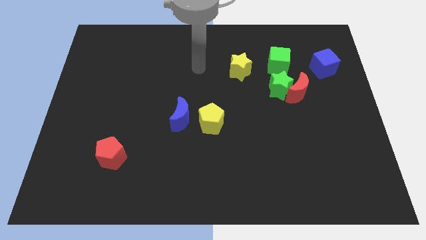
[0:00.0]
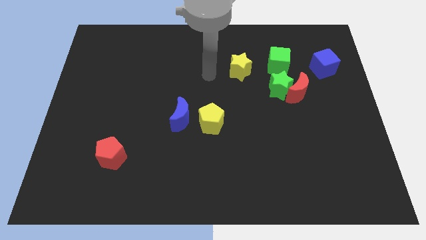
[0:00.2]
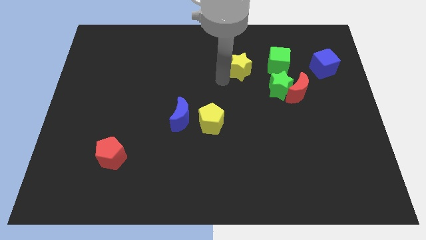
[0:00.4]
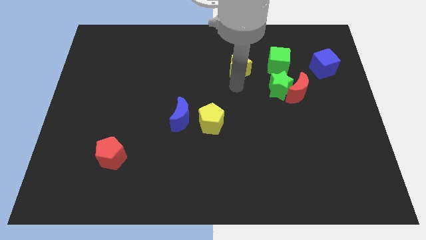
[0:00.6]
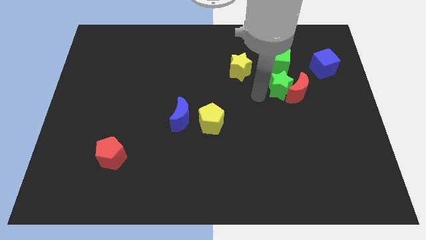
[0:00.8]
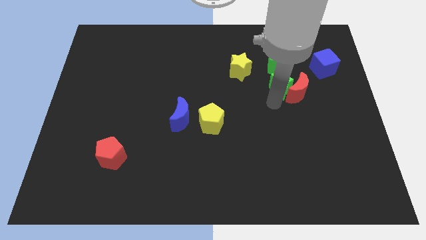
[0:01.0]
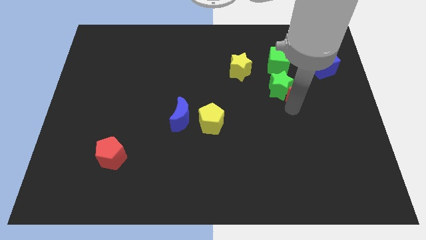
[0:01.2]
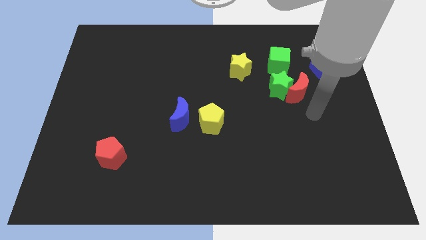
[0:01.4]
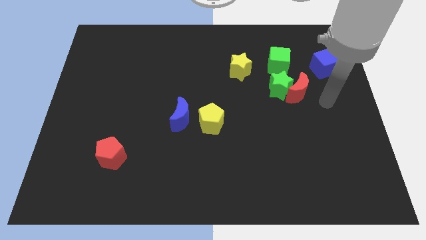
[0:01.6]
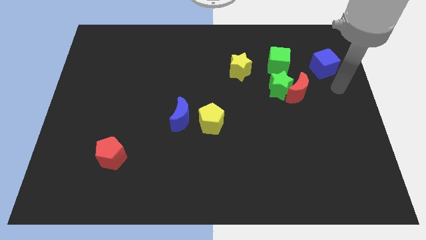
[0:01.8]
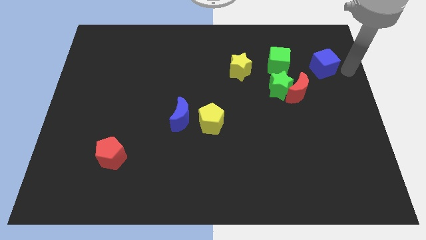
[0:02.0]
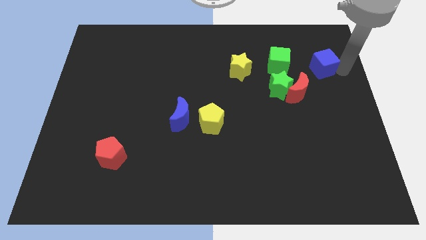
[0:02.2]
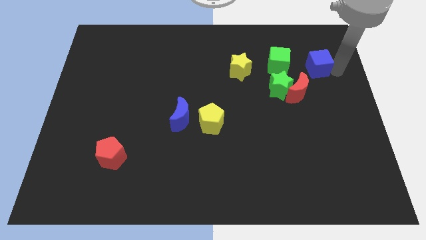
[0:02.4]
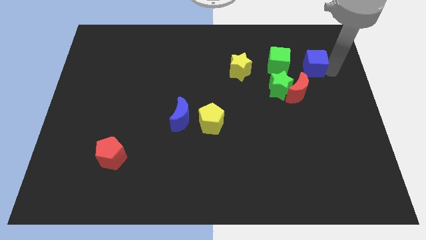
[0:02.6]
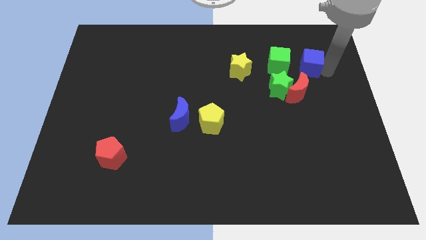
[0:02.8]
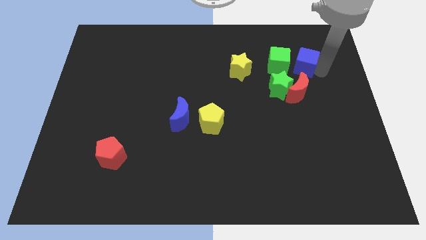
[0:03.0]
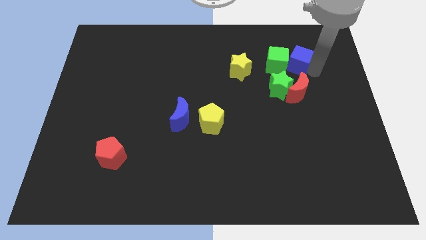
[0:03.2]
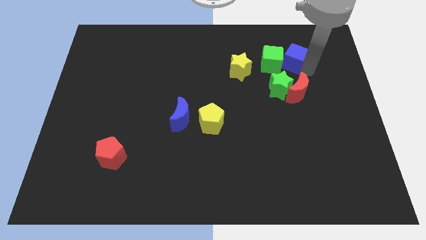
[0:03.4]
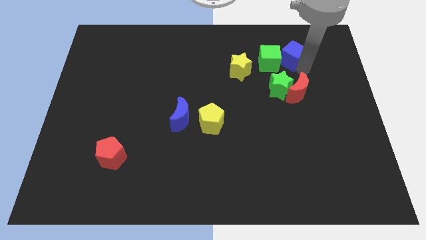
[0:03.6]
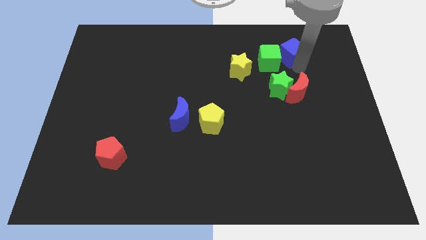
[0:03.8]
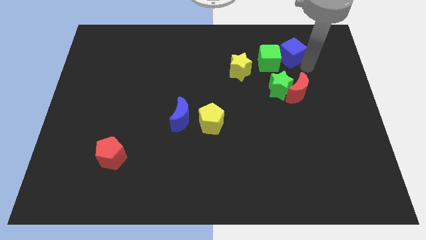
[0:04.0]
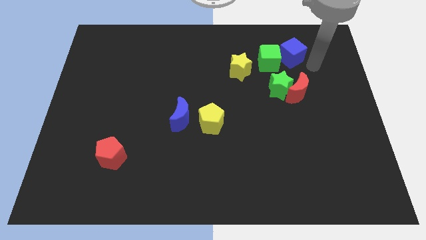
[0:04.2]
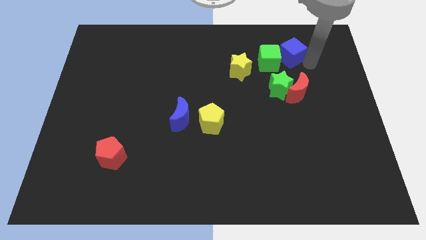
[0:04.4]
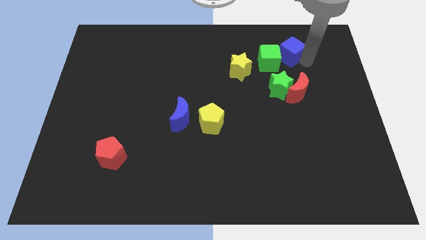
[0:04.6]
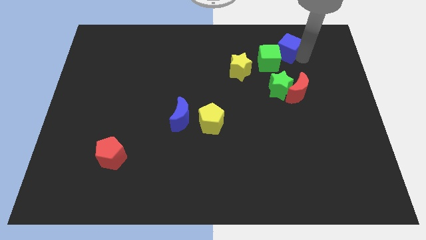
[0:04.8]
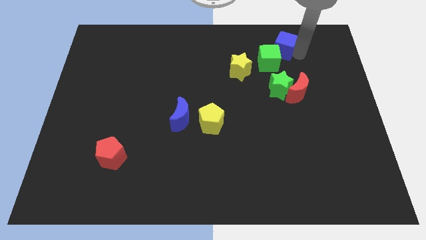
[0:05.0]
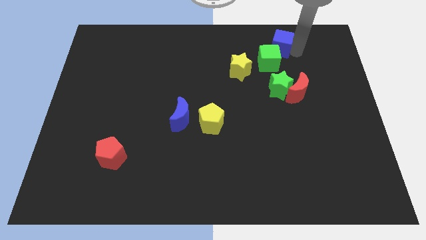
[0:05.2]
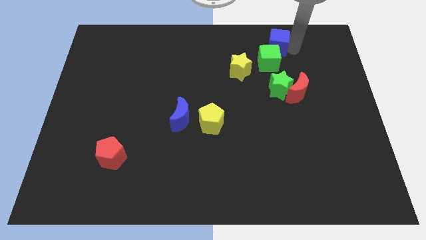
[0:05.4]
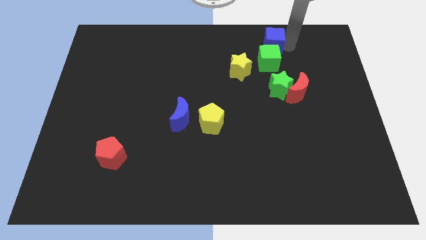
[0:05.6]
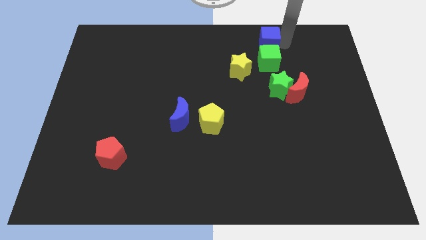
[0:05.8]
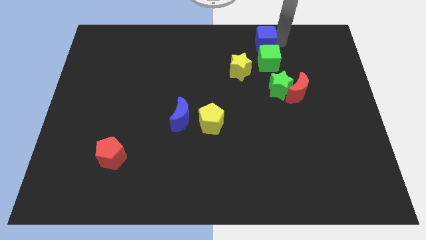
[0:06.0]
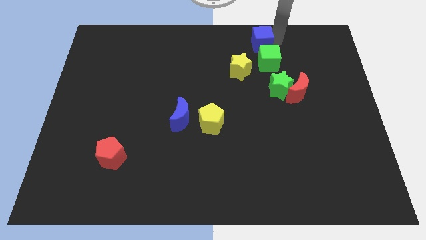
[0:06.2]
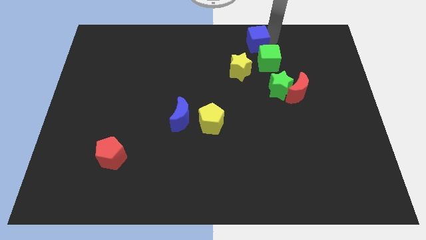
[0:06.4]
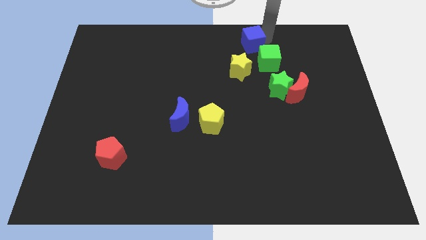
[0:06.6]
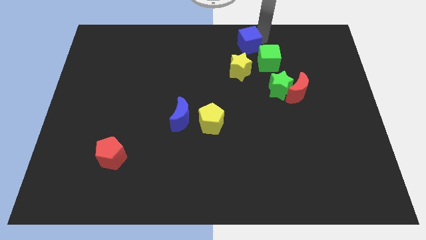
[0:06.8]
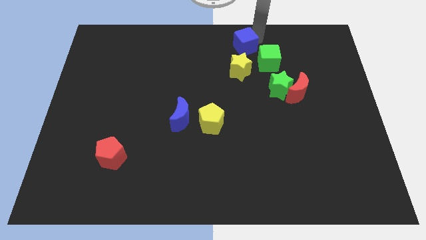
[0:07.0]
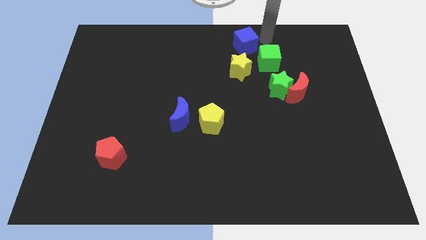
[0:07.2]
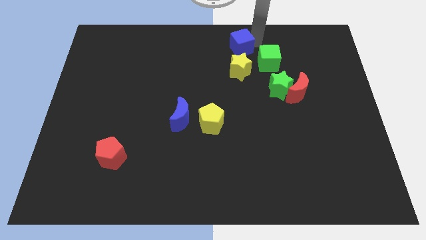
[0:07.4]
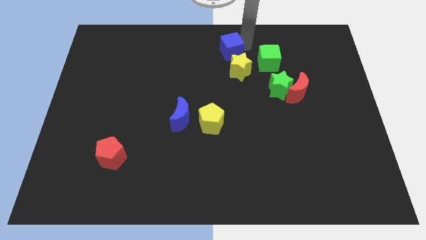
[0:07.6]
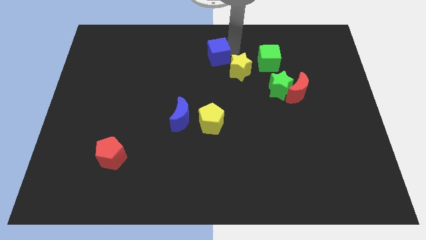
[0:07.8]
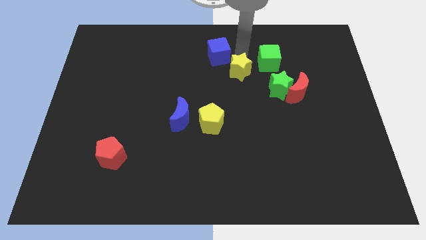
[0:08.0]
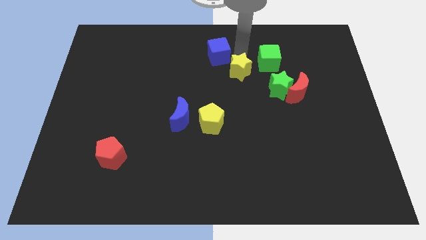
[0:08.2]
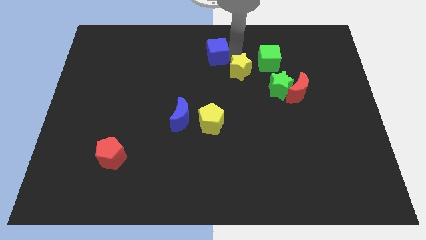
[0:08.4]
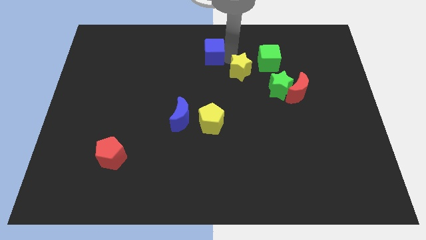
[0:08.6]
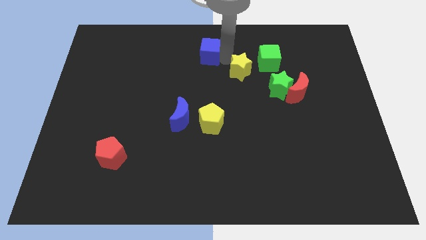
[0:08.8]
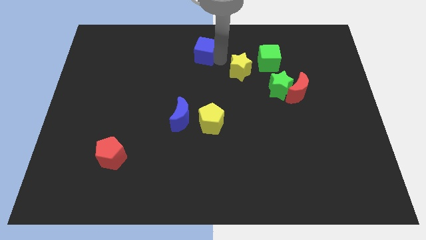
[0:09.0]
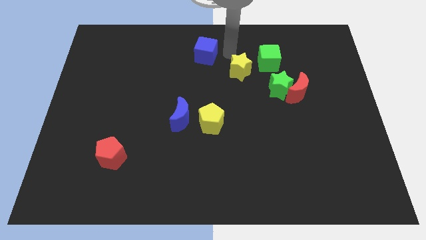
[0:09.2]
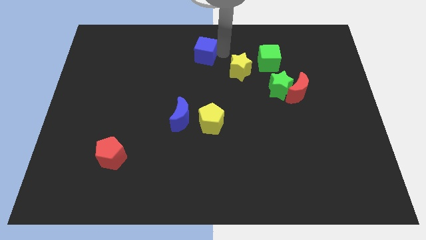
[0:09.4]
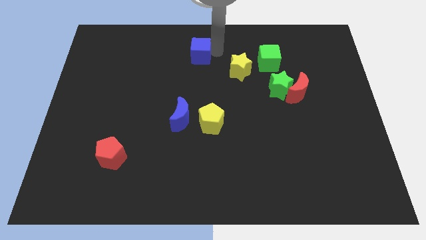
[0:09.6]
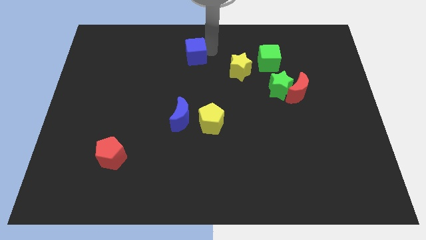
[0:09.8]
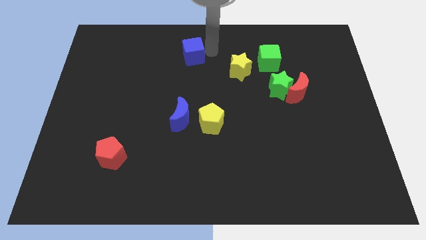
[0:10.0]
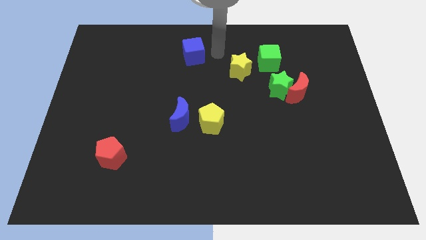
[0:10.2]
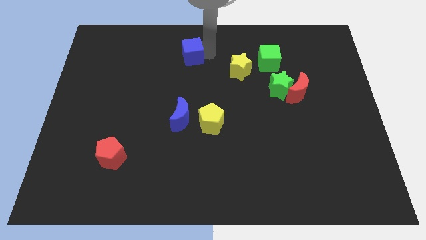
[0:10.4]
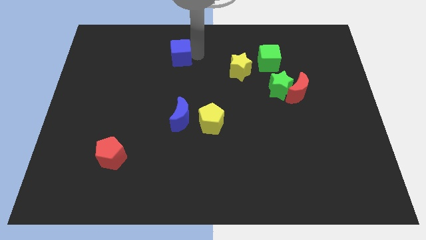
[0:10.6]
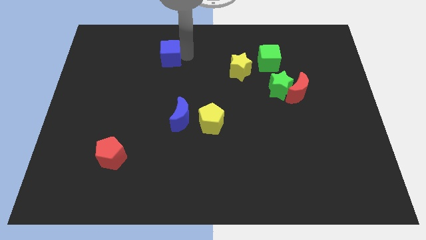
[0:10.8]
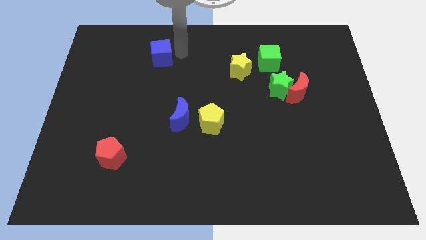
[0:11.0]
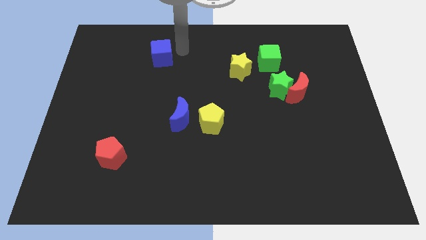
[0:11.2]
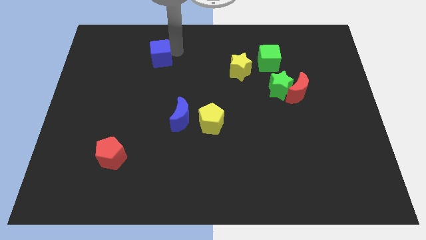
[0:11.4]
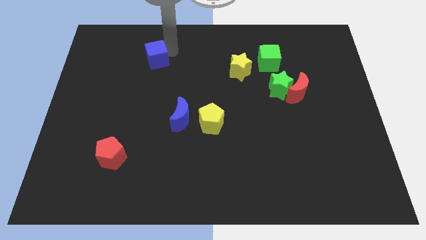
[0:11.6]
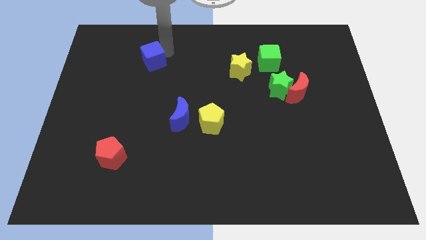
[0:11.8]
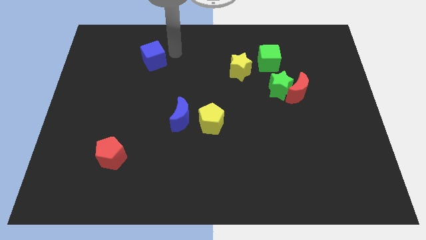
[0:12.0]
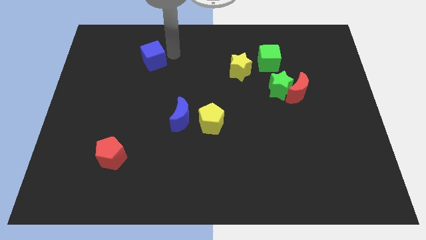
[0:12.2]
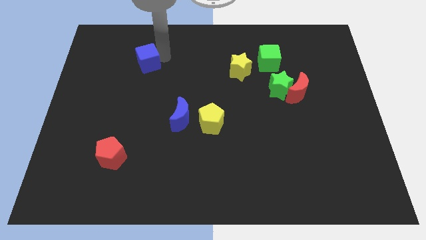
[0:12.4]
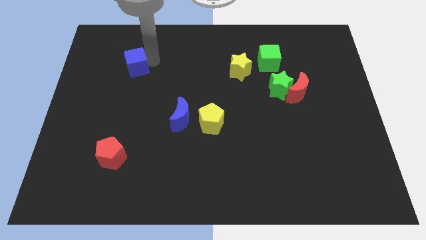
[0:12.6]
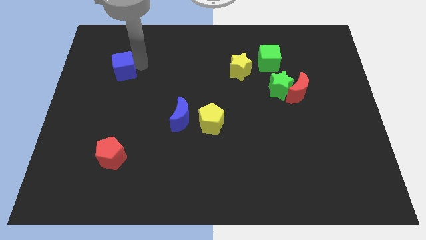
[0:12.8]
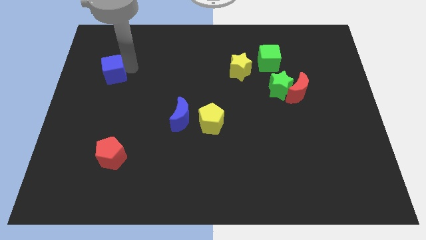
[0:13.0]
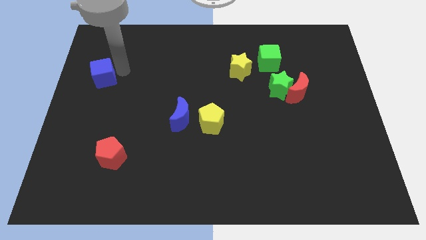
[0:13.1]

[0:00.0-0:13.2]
put the blue cube to the left side of the board

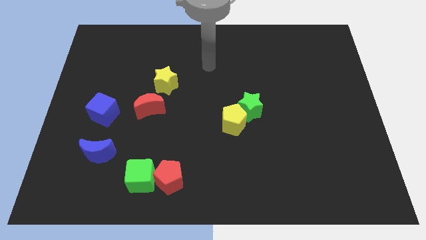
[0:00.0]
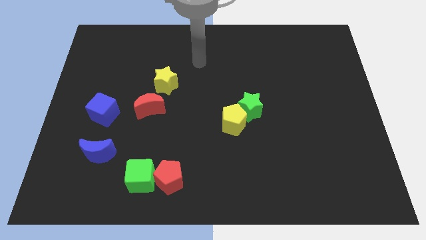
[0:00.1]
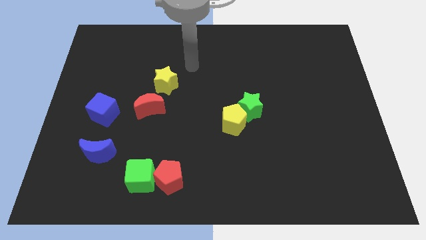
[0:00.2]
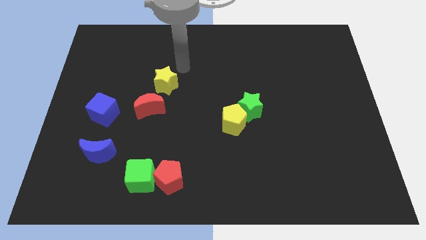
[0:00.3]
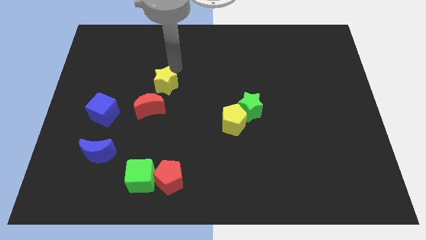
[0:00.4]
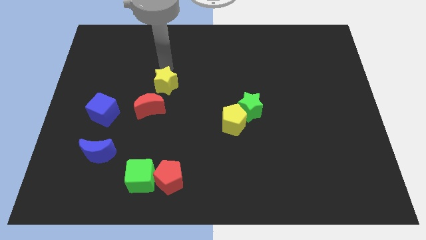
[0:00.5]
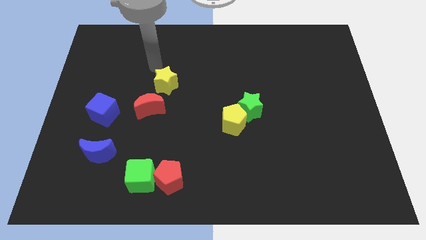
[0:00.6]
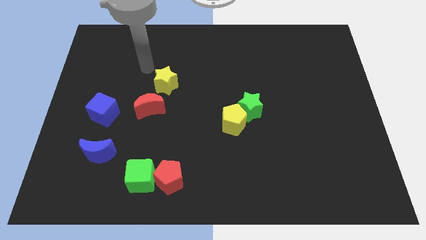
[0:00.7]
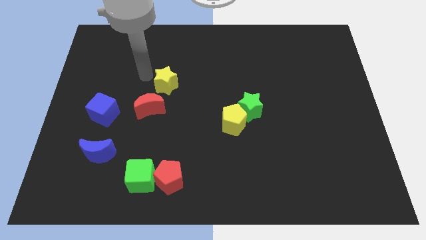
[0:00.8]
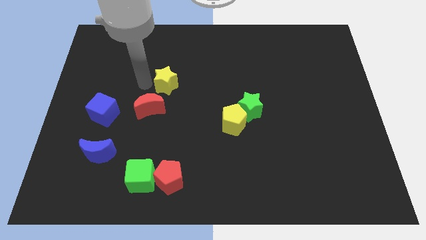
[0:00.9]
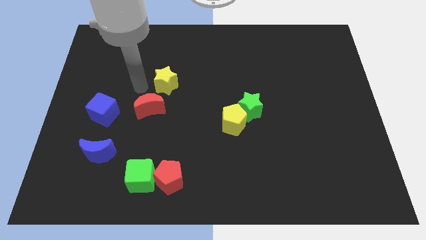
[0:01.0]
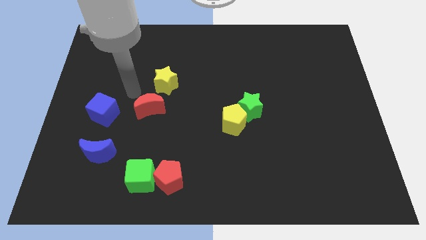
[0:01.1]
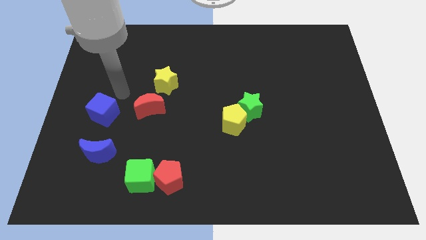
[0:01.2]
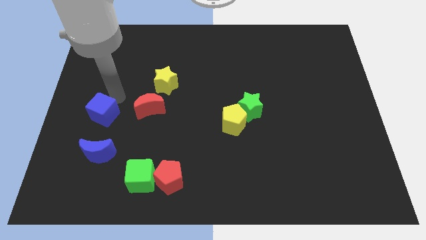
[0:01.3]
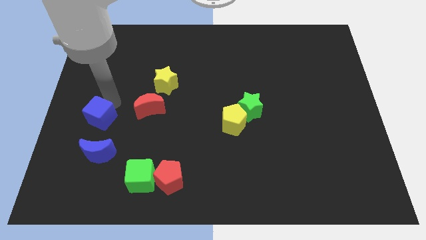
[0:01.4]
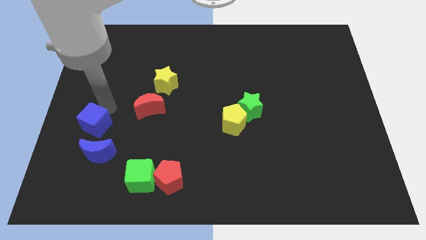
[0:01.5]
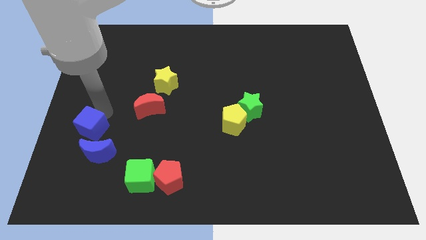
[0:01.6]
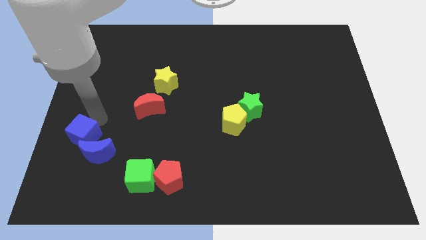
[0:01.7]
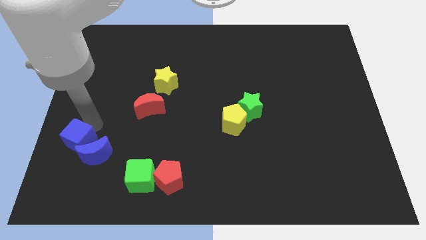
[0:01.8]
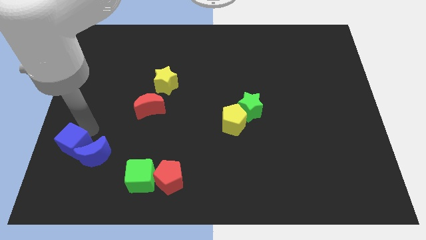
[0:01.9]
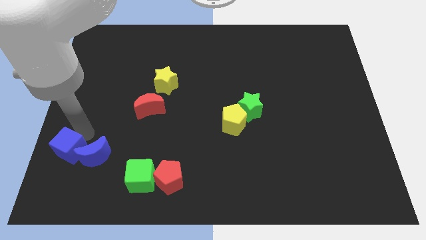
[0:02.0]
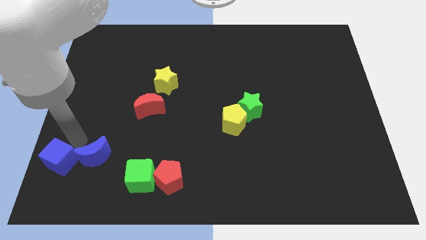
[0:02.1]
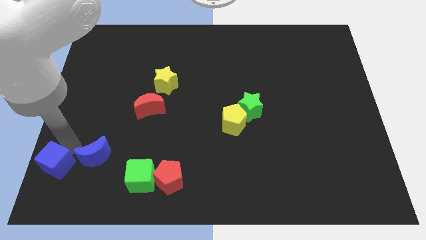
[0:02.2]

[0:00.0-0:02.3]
slide the blue cube to the bottom left corner
